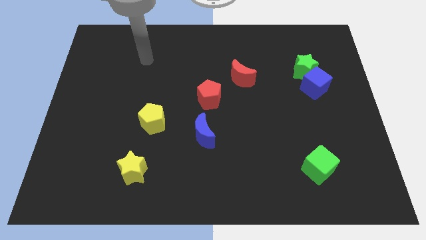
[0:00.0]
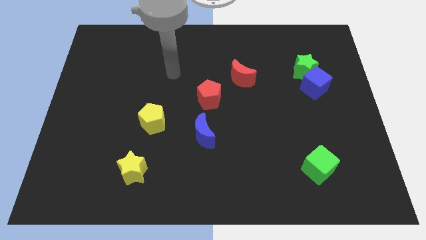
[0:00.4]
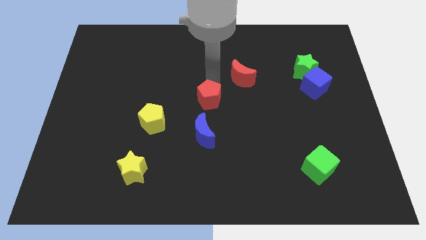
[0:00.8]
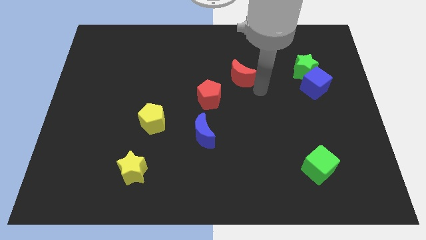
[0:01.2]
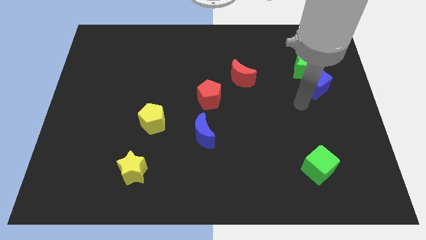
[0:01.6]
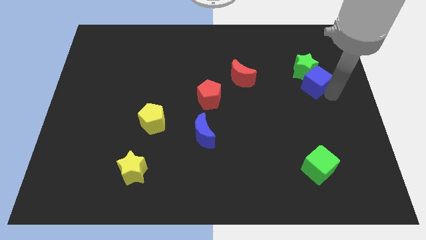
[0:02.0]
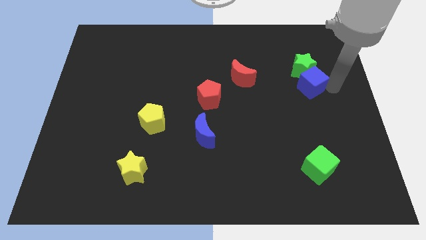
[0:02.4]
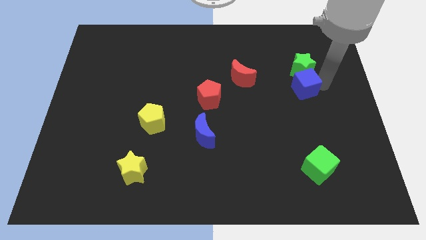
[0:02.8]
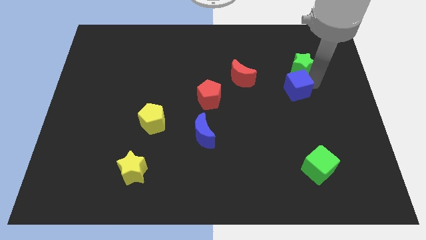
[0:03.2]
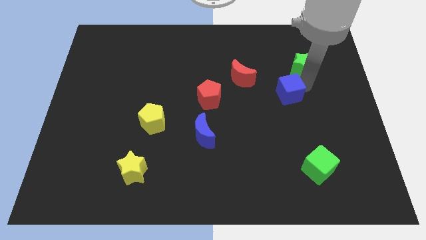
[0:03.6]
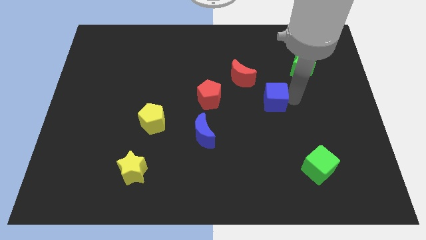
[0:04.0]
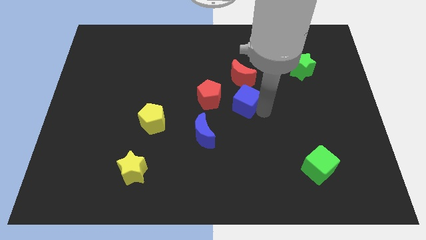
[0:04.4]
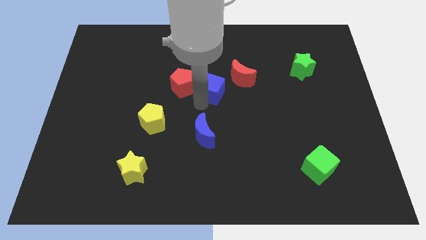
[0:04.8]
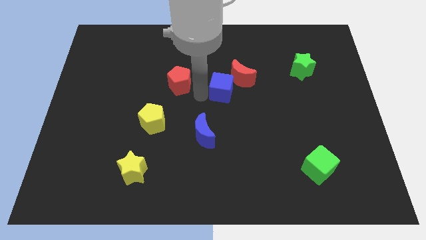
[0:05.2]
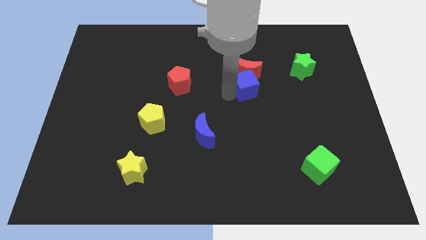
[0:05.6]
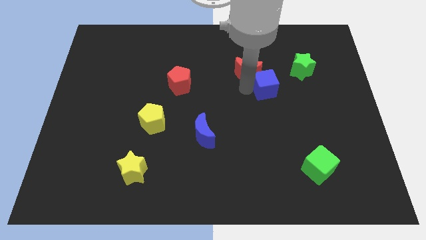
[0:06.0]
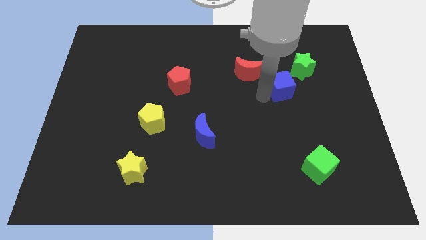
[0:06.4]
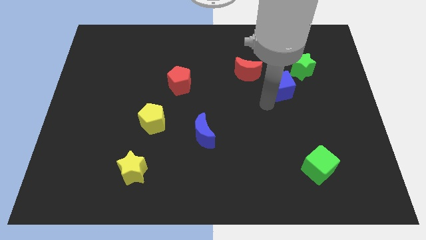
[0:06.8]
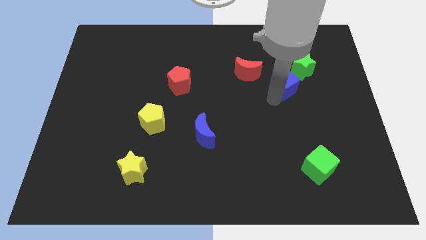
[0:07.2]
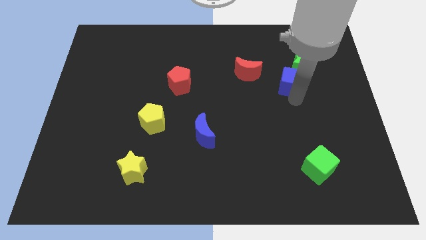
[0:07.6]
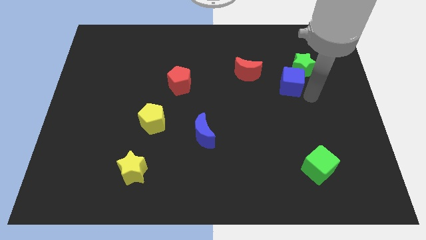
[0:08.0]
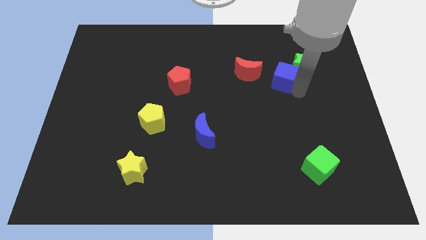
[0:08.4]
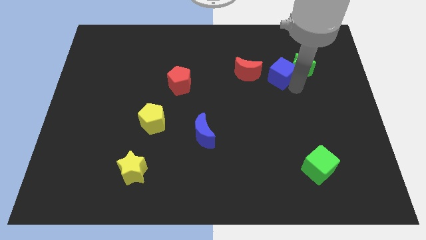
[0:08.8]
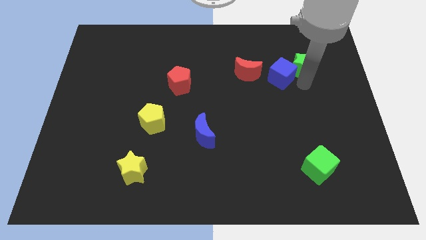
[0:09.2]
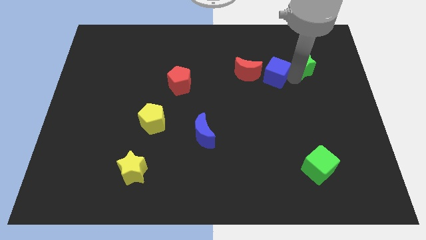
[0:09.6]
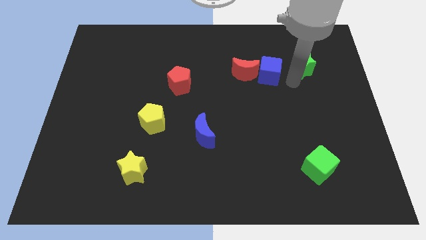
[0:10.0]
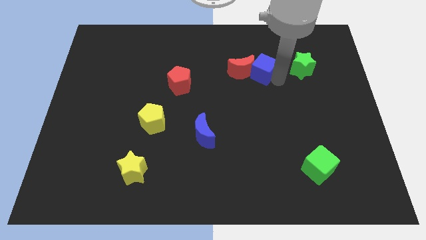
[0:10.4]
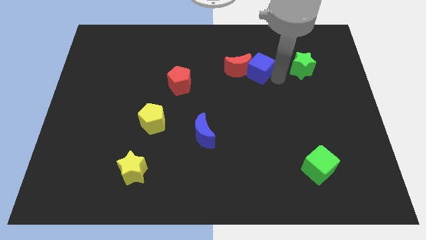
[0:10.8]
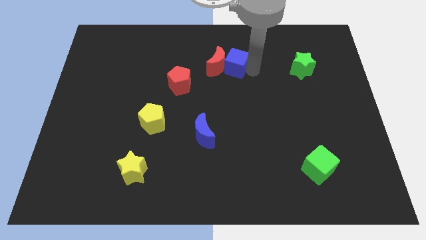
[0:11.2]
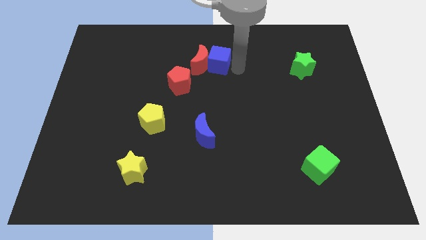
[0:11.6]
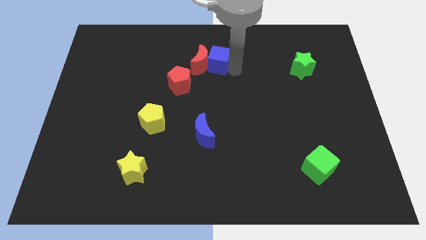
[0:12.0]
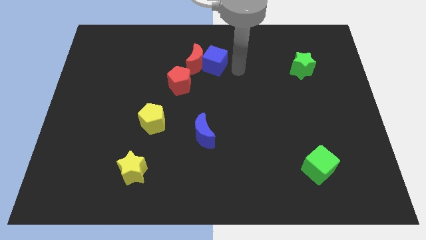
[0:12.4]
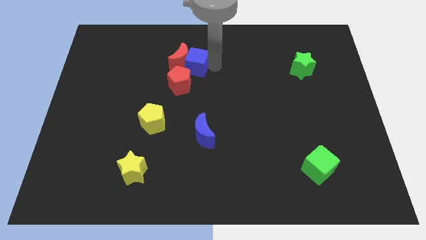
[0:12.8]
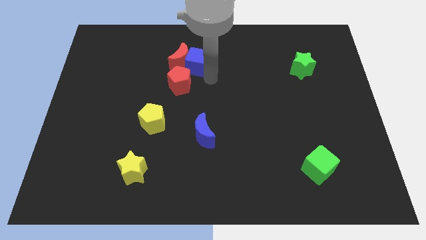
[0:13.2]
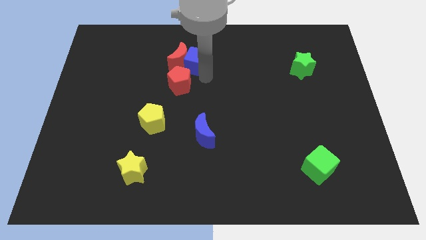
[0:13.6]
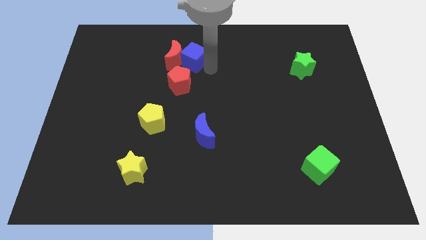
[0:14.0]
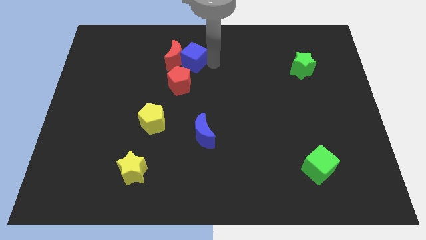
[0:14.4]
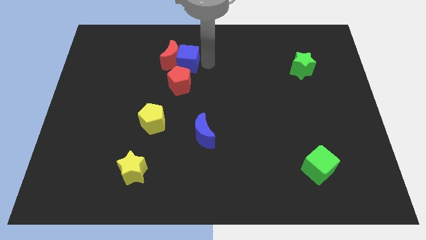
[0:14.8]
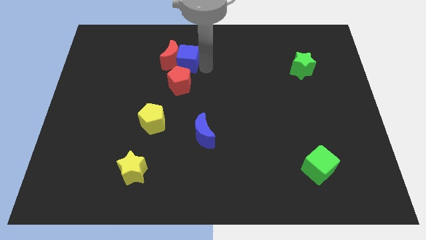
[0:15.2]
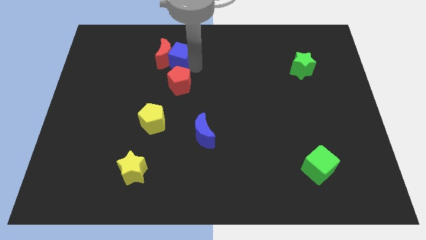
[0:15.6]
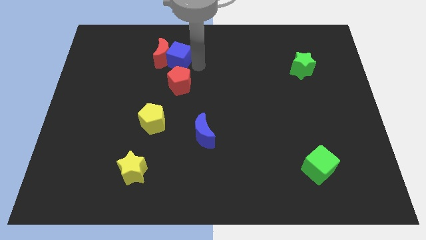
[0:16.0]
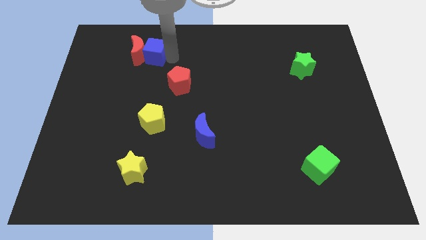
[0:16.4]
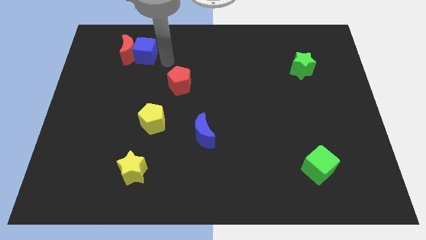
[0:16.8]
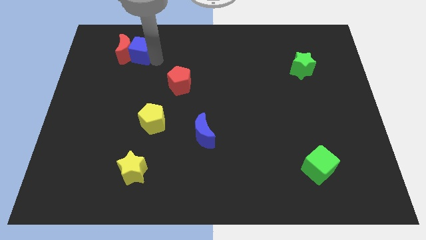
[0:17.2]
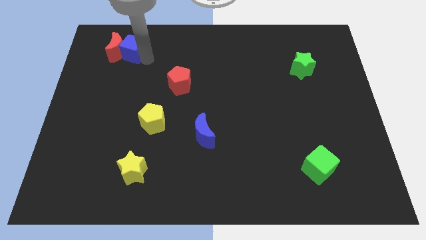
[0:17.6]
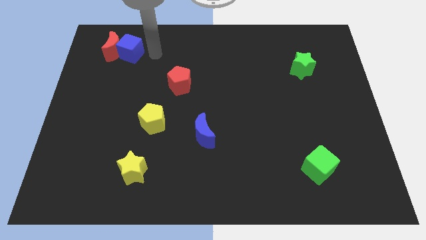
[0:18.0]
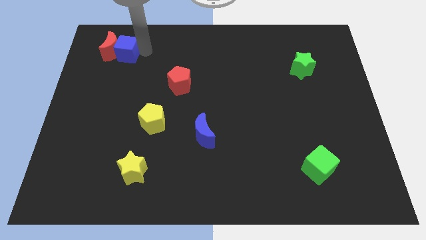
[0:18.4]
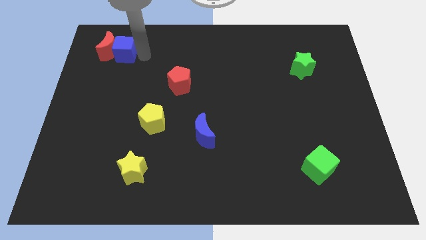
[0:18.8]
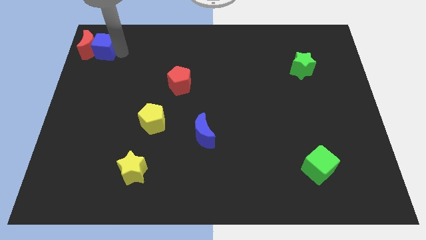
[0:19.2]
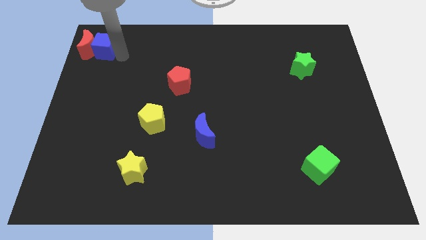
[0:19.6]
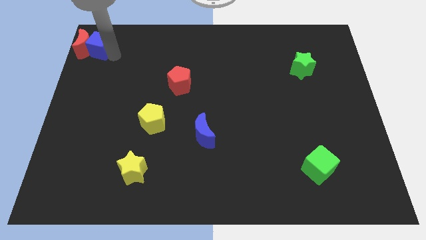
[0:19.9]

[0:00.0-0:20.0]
push the blue cube to the upper left corner

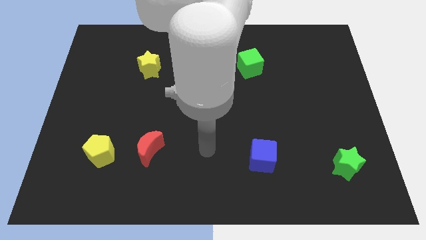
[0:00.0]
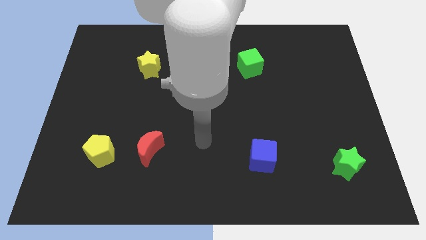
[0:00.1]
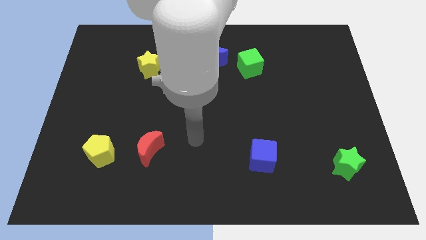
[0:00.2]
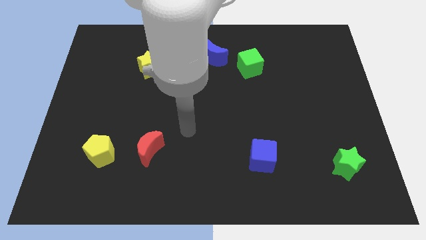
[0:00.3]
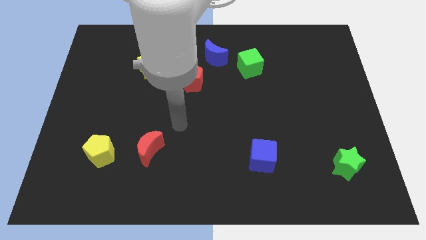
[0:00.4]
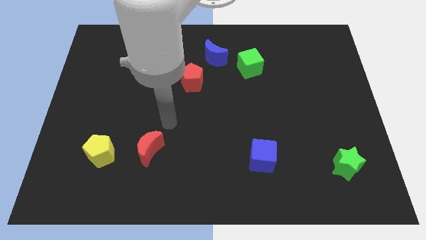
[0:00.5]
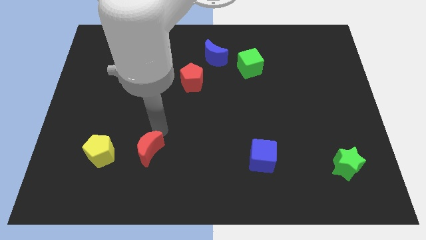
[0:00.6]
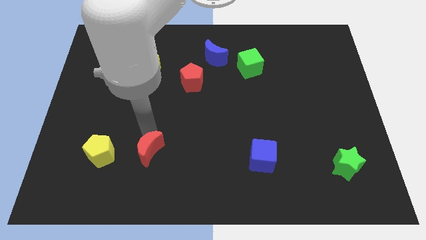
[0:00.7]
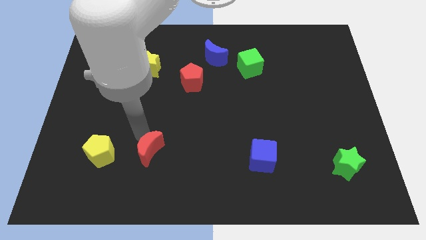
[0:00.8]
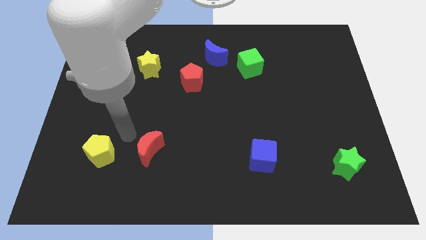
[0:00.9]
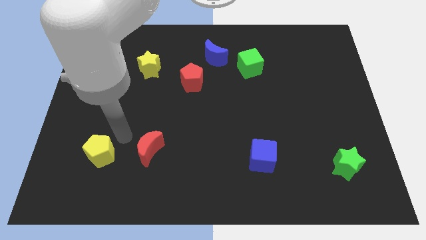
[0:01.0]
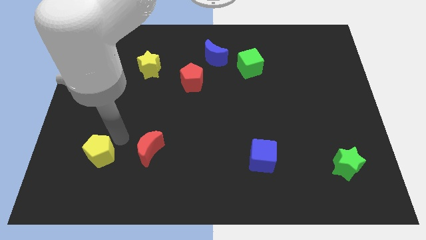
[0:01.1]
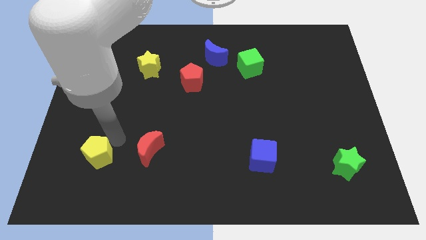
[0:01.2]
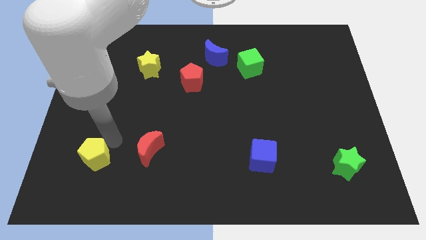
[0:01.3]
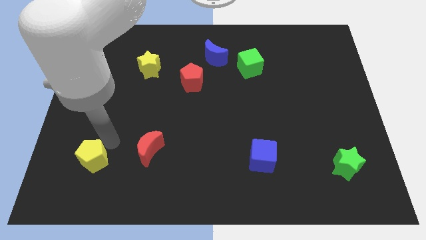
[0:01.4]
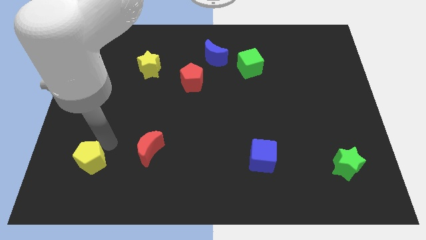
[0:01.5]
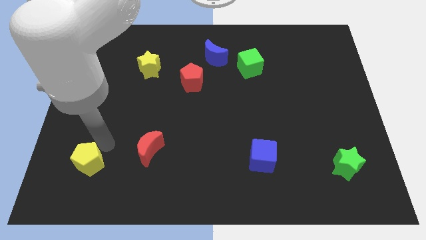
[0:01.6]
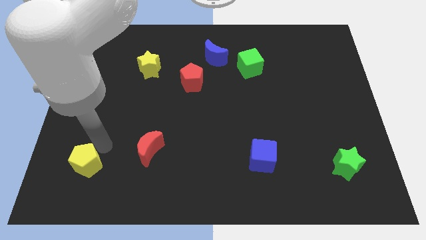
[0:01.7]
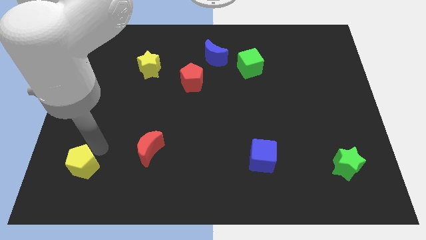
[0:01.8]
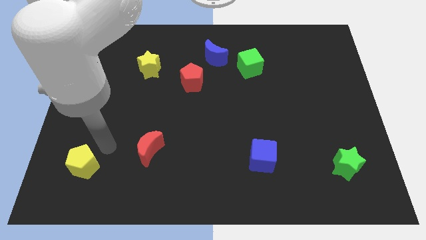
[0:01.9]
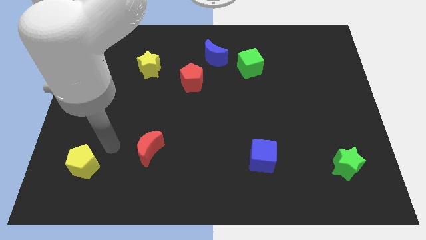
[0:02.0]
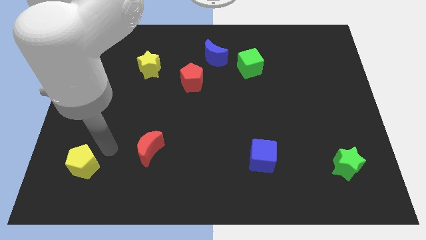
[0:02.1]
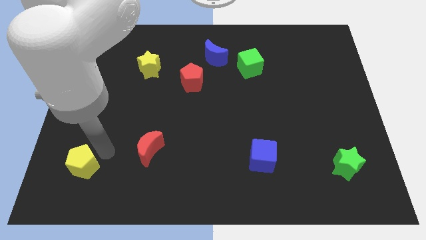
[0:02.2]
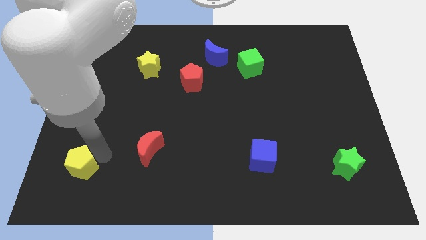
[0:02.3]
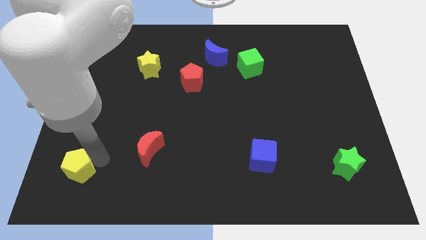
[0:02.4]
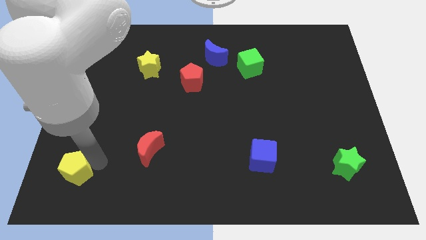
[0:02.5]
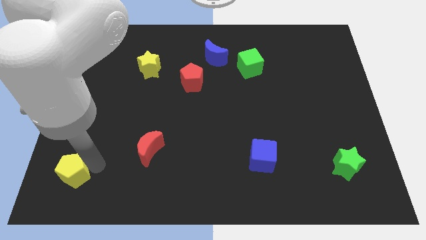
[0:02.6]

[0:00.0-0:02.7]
slide the yellow pentagon to the lower left corner

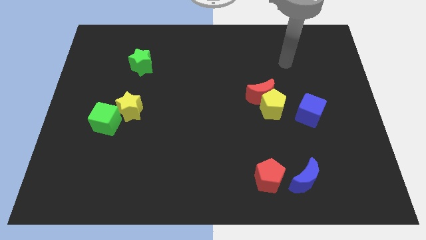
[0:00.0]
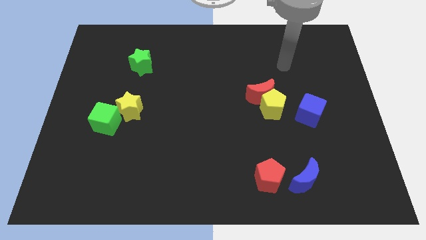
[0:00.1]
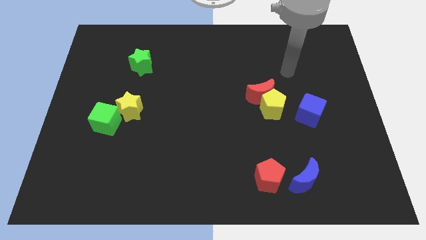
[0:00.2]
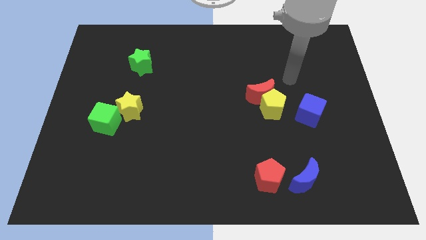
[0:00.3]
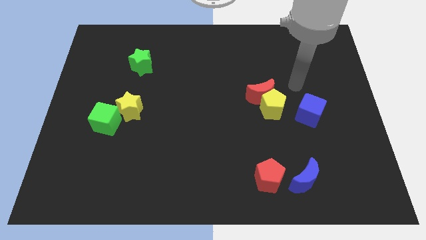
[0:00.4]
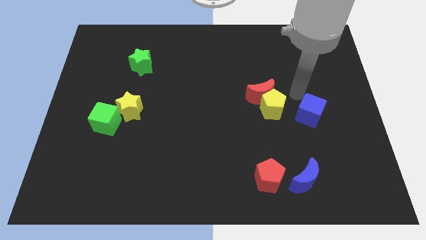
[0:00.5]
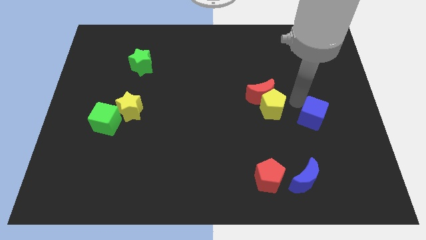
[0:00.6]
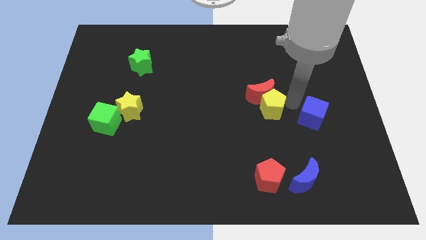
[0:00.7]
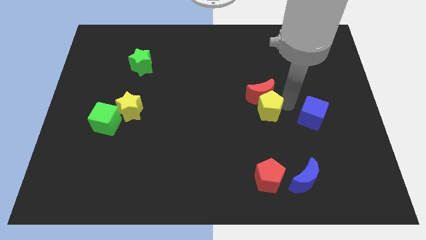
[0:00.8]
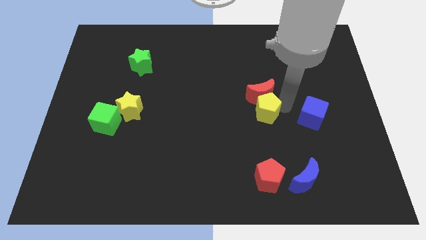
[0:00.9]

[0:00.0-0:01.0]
push the yellow pentagon to the center
